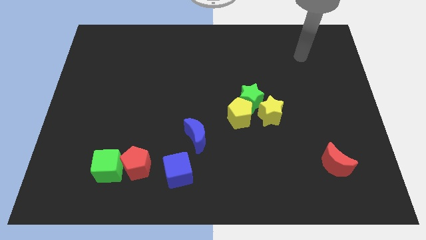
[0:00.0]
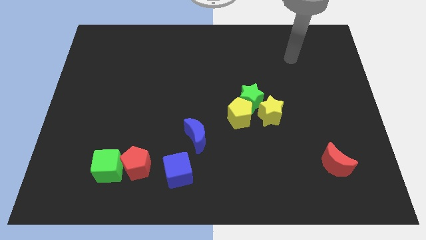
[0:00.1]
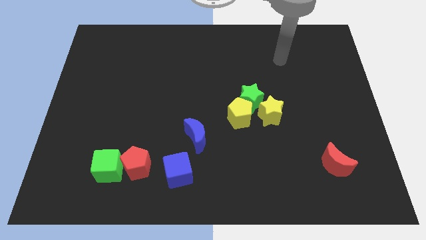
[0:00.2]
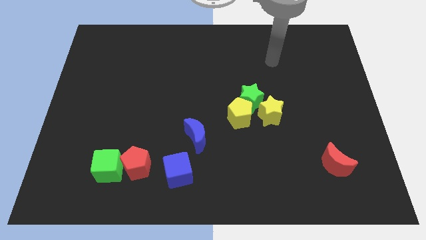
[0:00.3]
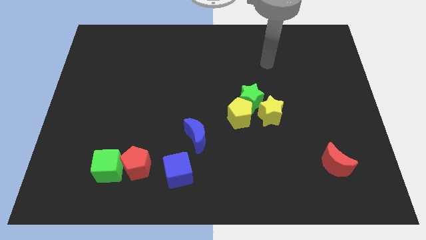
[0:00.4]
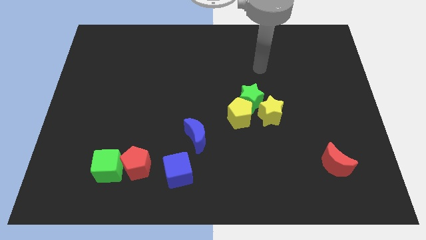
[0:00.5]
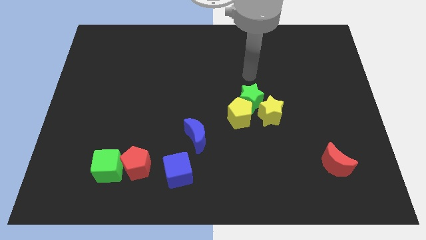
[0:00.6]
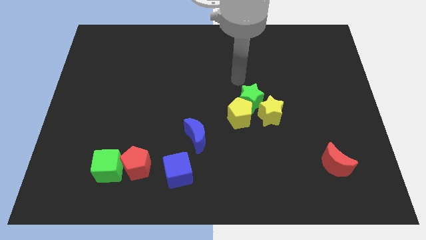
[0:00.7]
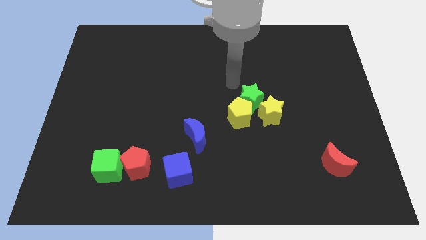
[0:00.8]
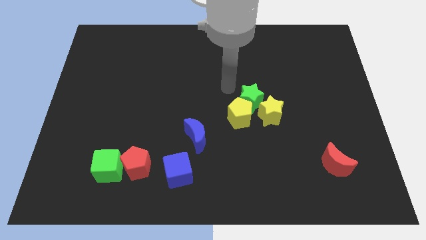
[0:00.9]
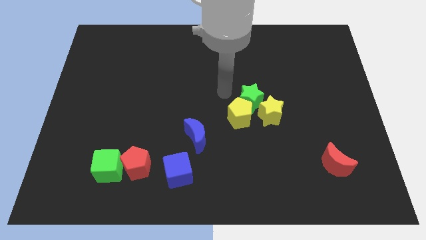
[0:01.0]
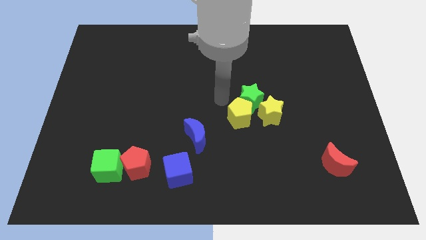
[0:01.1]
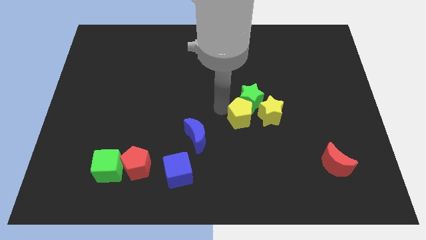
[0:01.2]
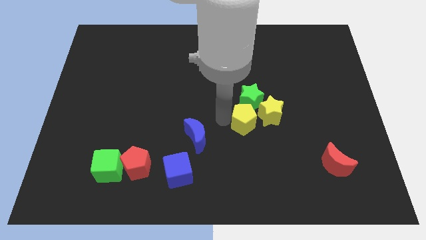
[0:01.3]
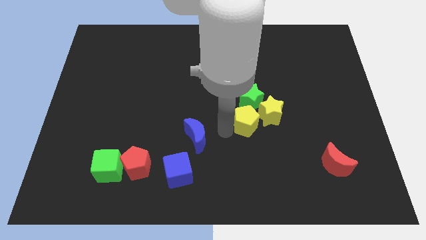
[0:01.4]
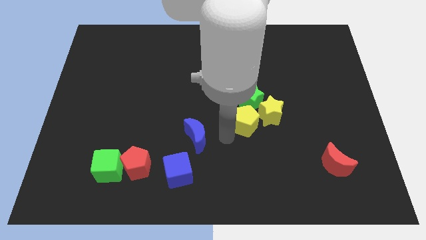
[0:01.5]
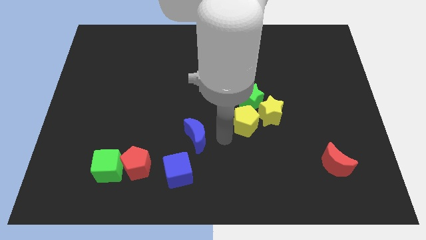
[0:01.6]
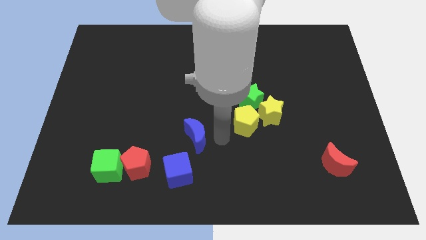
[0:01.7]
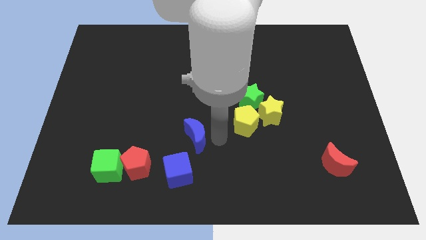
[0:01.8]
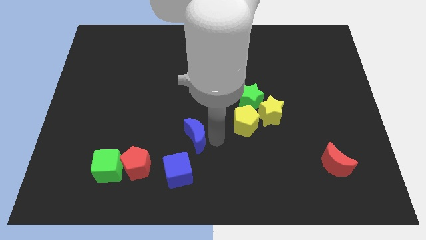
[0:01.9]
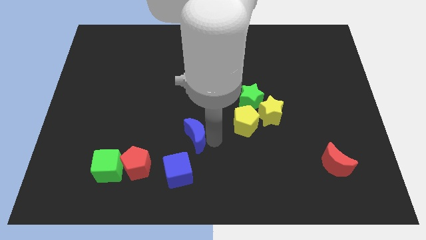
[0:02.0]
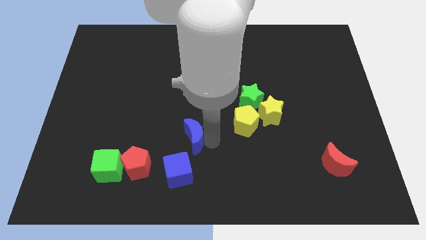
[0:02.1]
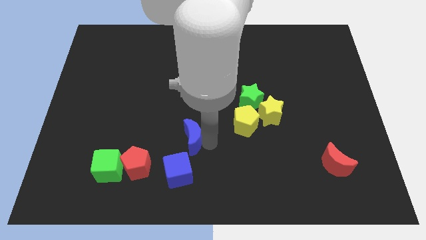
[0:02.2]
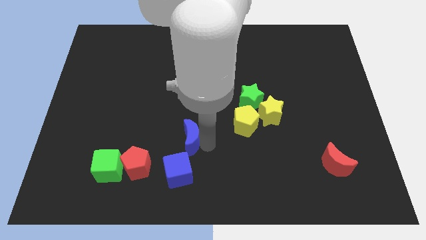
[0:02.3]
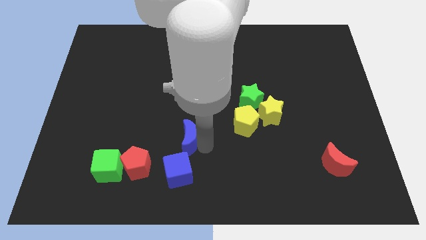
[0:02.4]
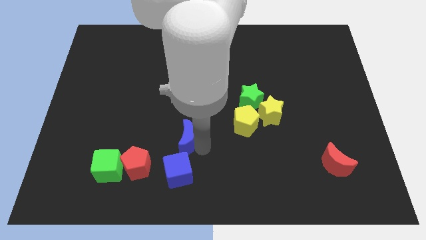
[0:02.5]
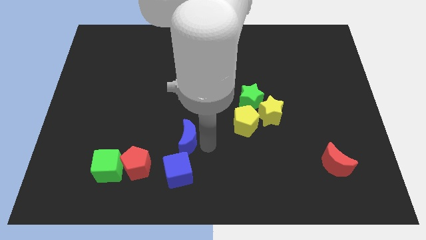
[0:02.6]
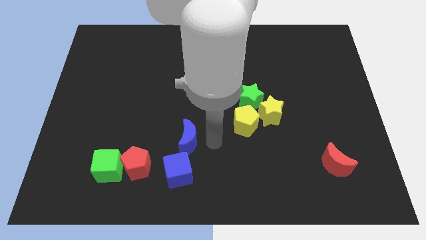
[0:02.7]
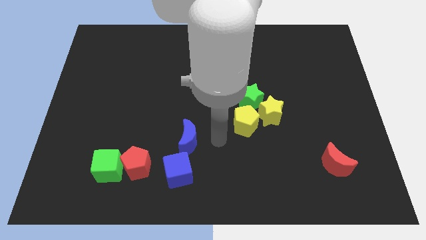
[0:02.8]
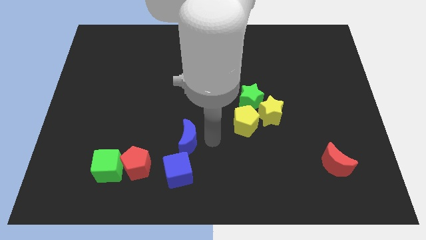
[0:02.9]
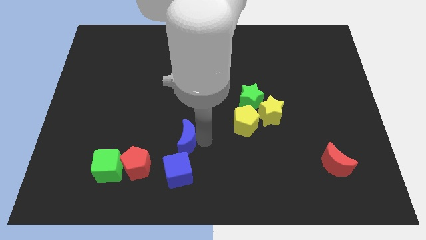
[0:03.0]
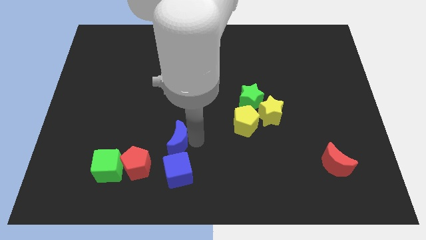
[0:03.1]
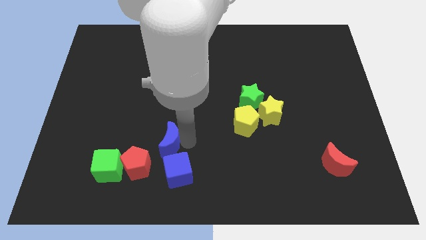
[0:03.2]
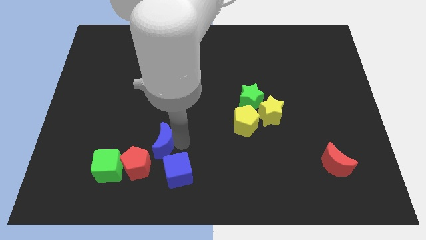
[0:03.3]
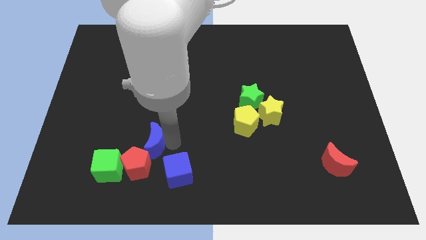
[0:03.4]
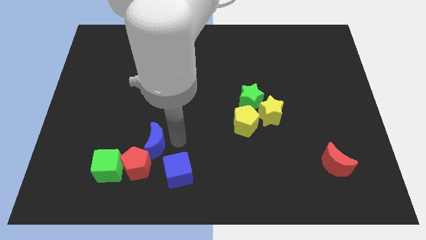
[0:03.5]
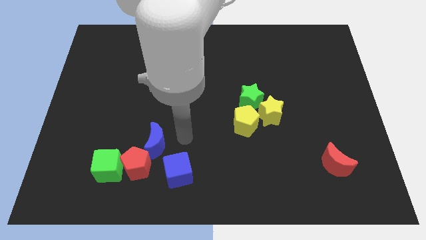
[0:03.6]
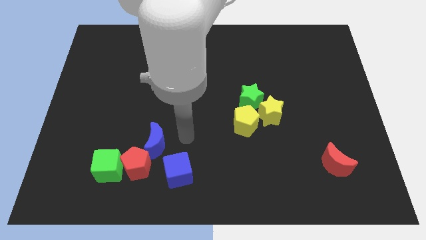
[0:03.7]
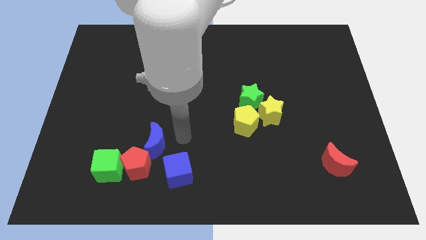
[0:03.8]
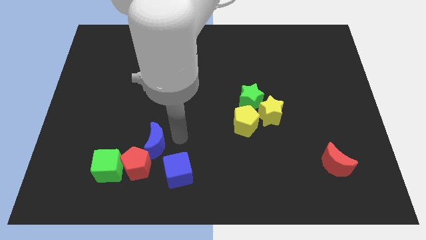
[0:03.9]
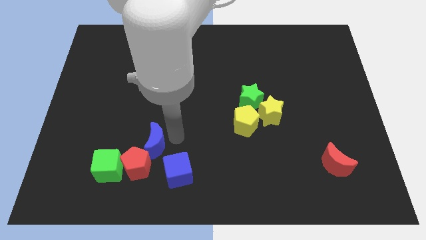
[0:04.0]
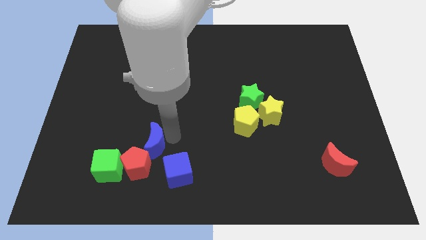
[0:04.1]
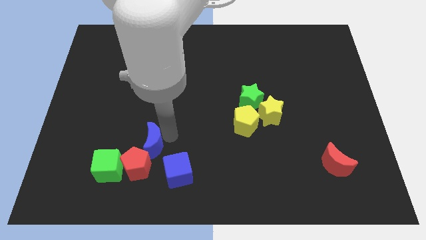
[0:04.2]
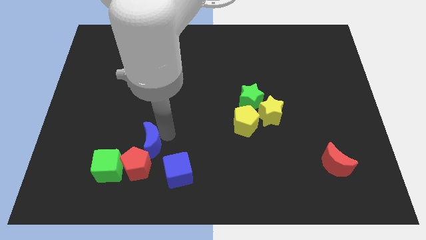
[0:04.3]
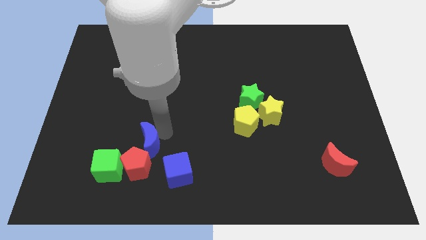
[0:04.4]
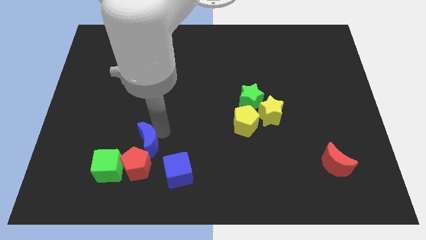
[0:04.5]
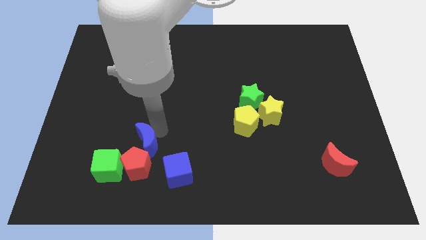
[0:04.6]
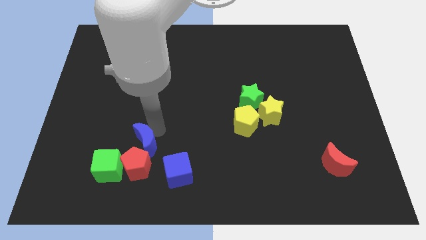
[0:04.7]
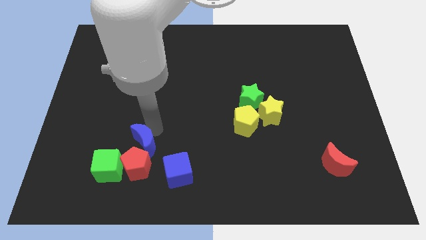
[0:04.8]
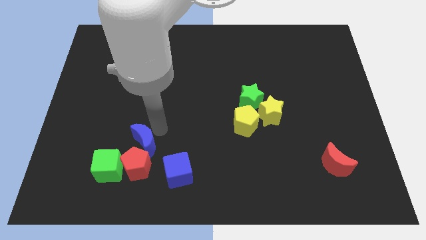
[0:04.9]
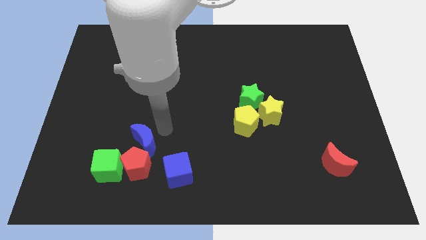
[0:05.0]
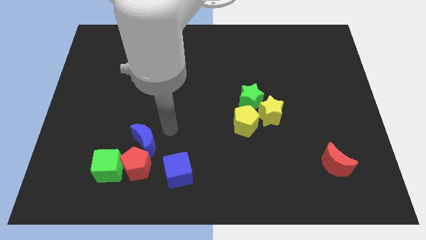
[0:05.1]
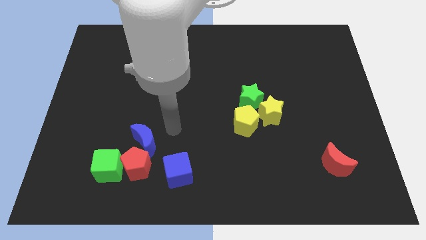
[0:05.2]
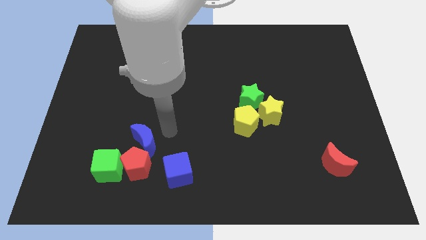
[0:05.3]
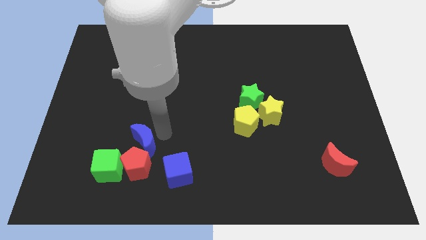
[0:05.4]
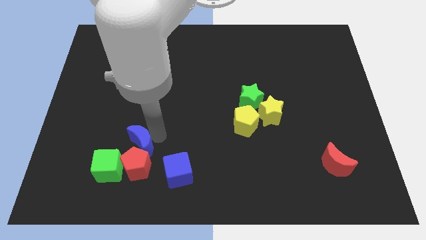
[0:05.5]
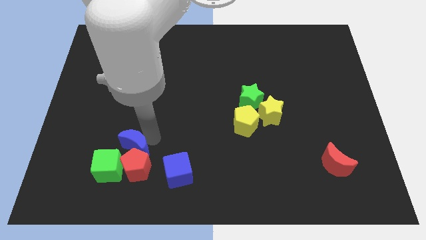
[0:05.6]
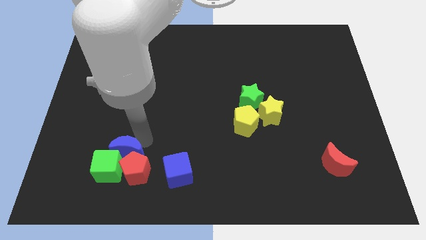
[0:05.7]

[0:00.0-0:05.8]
push the blue moon next to the green cube

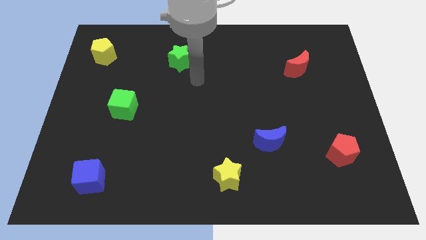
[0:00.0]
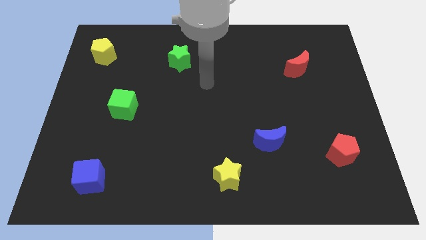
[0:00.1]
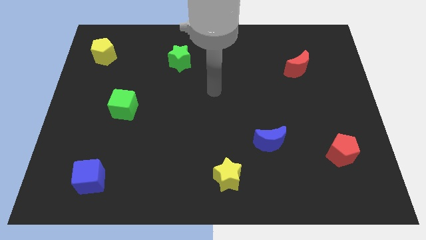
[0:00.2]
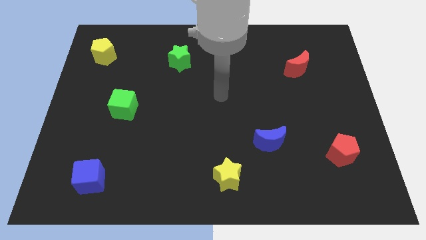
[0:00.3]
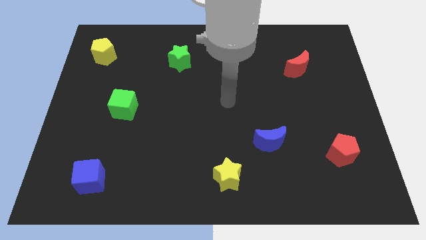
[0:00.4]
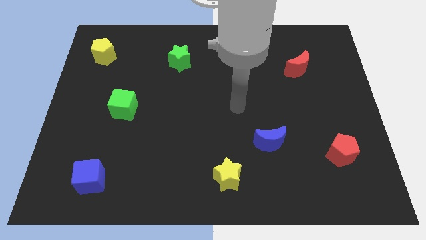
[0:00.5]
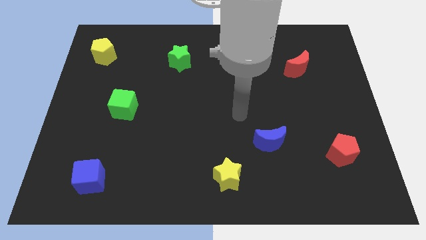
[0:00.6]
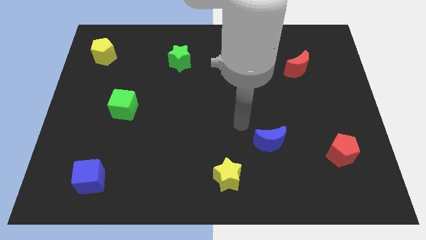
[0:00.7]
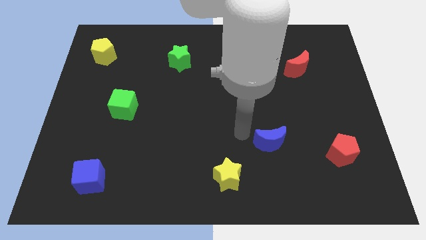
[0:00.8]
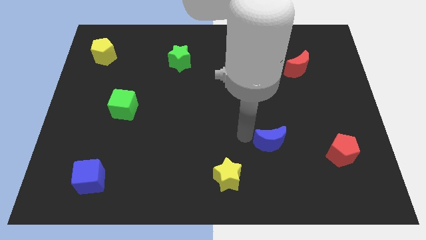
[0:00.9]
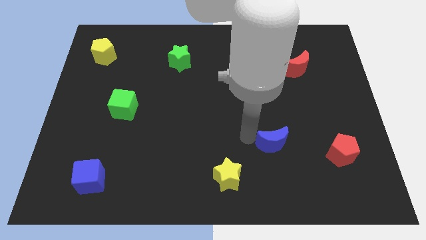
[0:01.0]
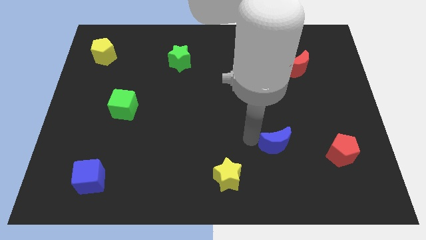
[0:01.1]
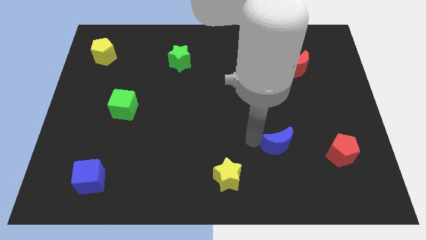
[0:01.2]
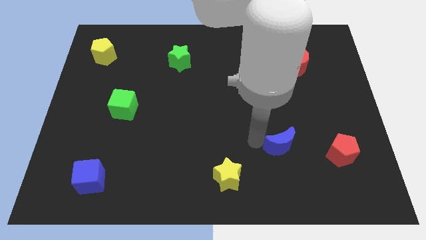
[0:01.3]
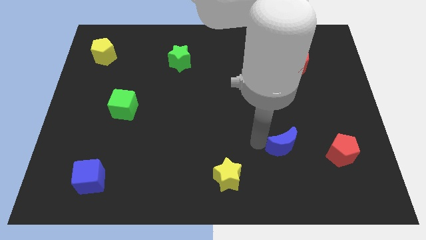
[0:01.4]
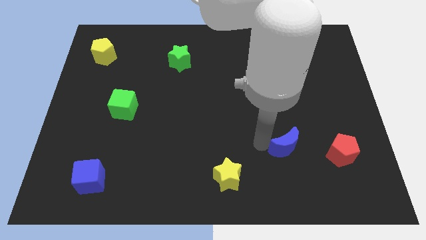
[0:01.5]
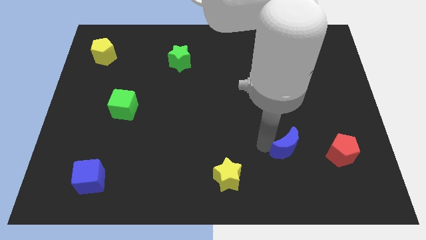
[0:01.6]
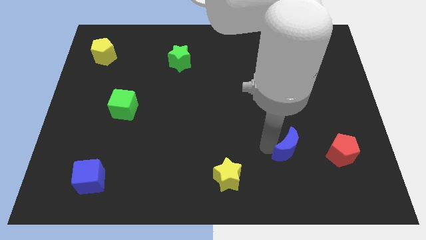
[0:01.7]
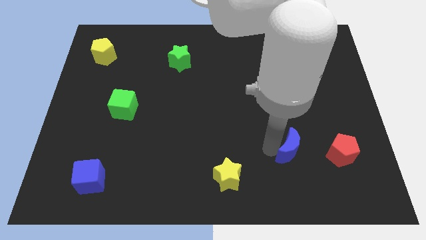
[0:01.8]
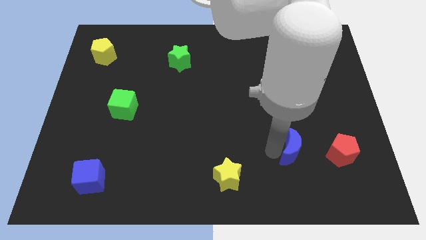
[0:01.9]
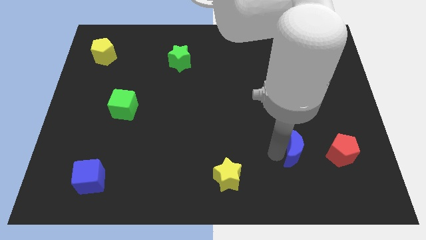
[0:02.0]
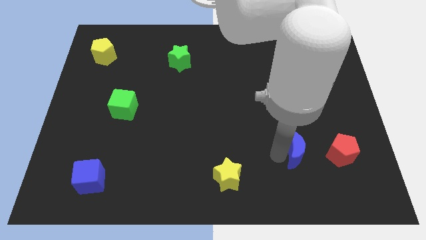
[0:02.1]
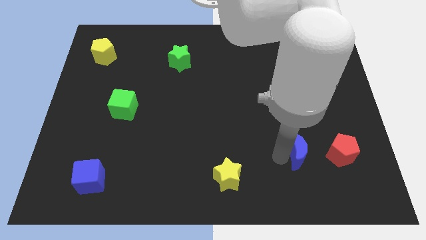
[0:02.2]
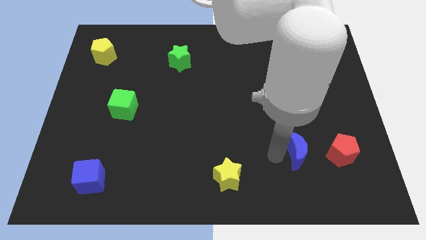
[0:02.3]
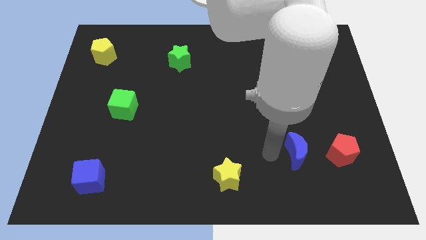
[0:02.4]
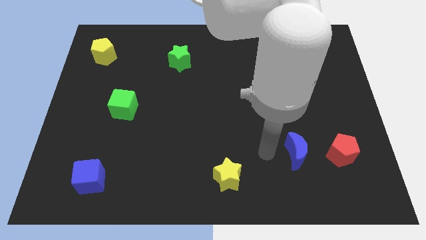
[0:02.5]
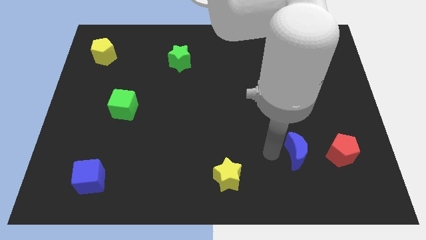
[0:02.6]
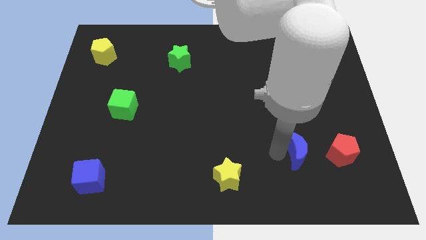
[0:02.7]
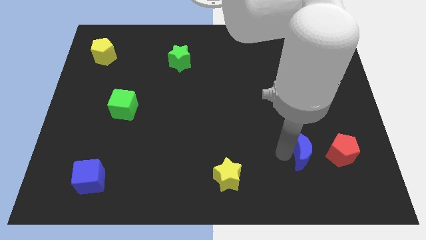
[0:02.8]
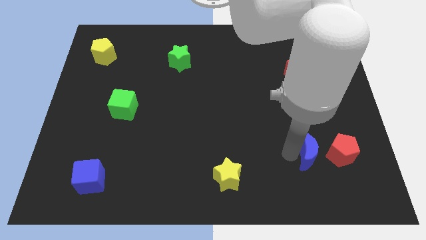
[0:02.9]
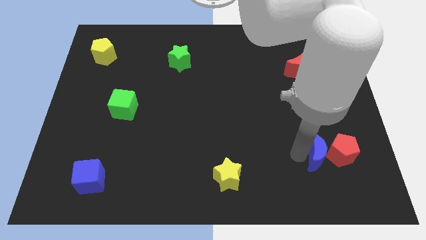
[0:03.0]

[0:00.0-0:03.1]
put the blue moon to the red pentagon
